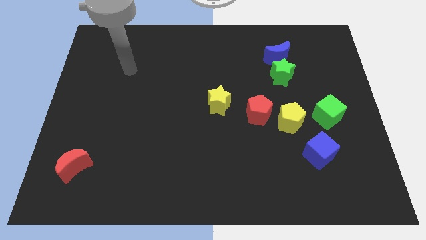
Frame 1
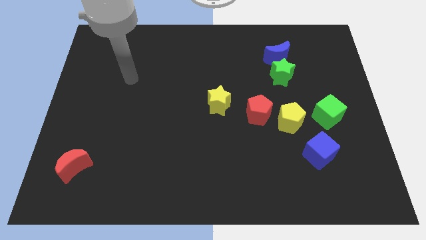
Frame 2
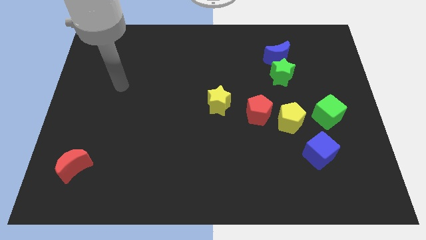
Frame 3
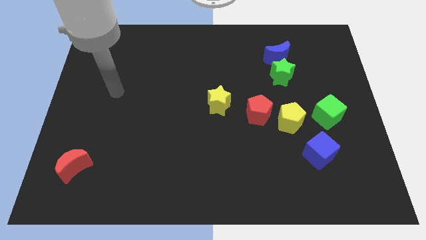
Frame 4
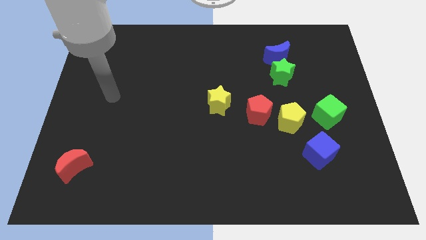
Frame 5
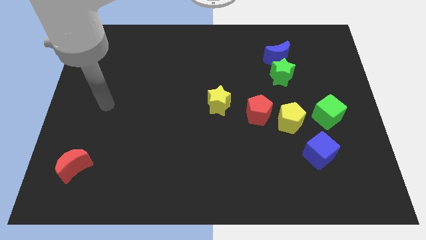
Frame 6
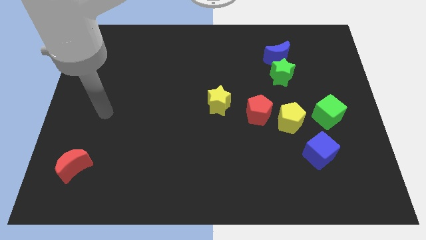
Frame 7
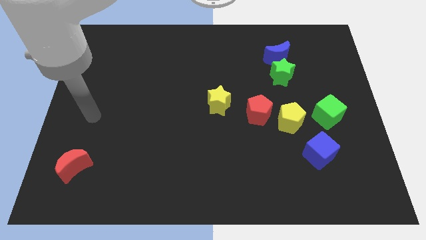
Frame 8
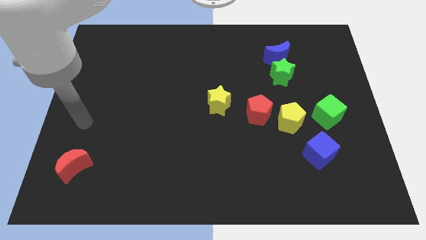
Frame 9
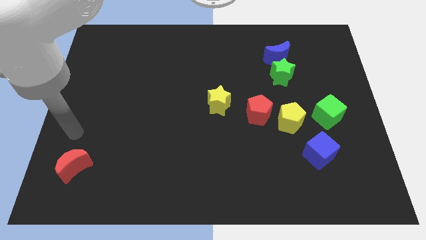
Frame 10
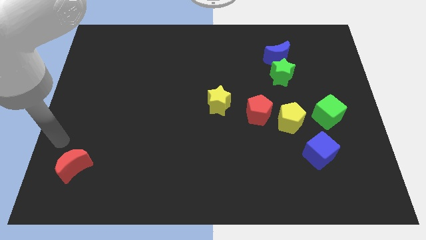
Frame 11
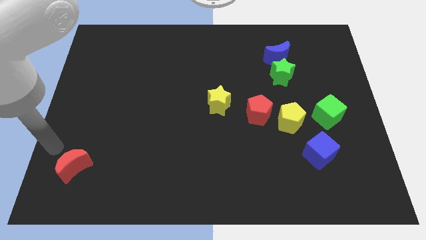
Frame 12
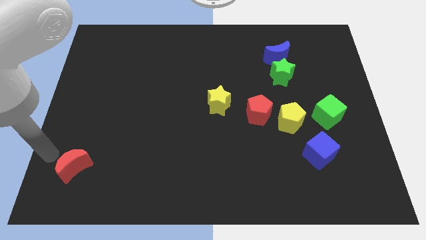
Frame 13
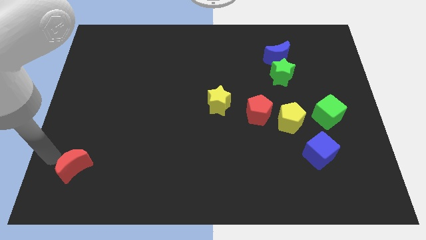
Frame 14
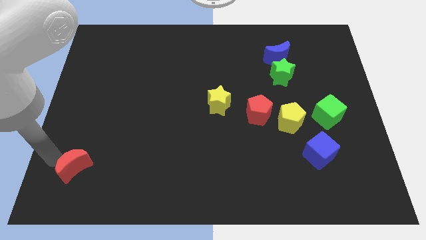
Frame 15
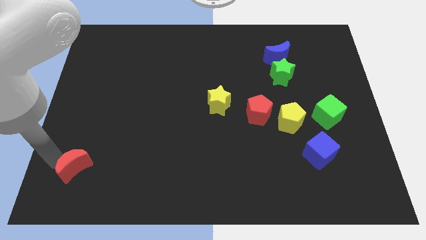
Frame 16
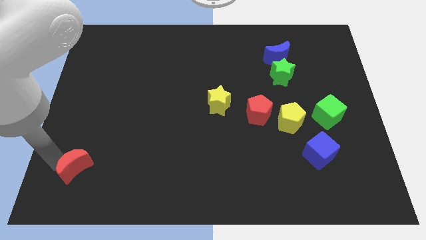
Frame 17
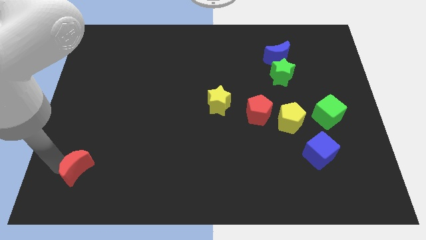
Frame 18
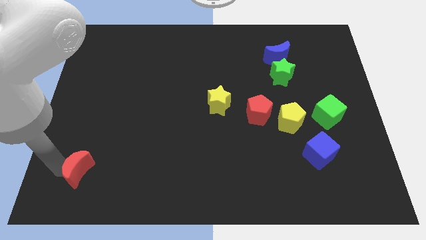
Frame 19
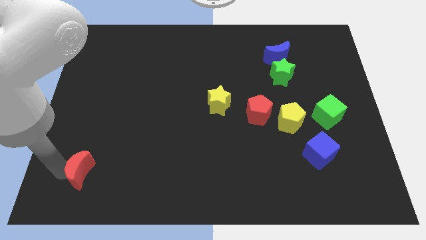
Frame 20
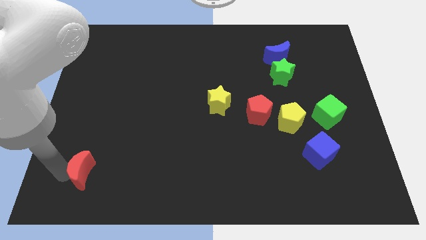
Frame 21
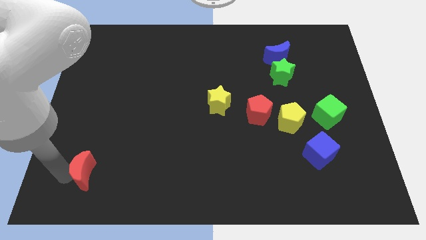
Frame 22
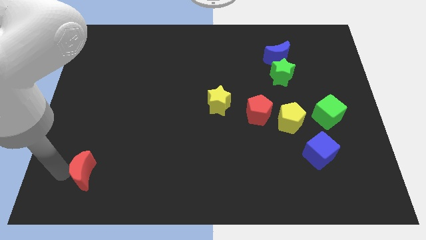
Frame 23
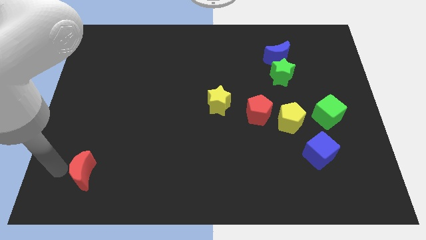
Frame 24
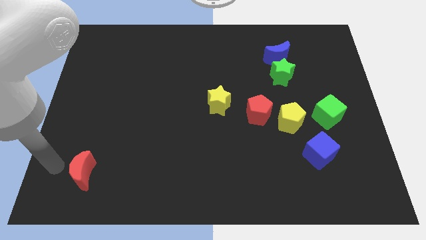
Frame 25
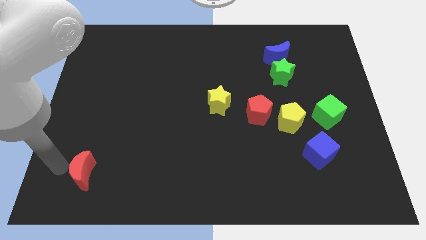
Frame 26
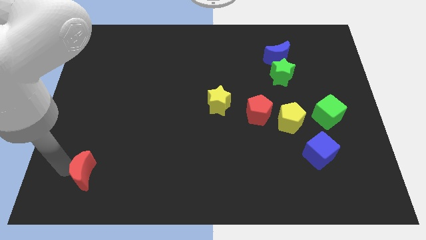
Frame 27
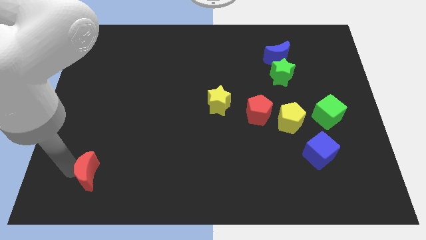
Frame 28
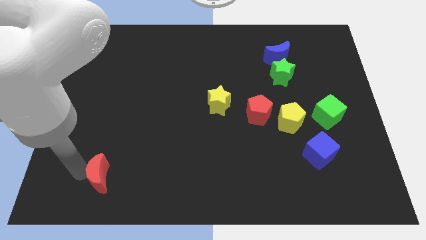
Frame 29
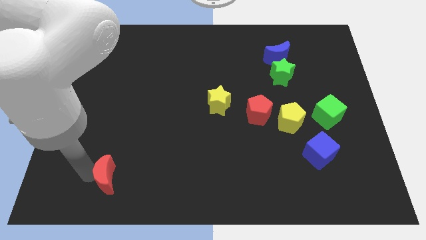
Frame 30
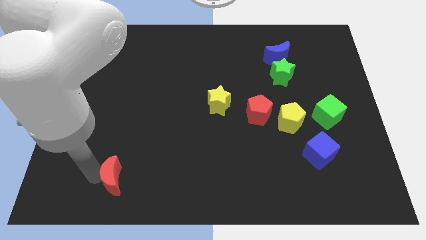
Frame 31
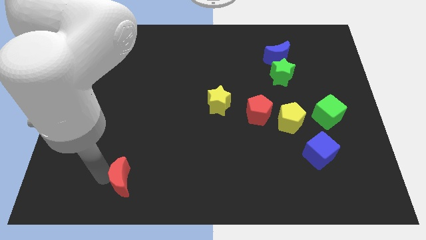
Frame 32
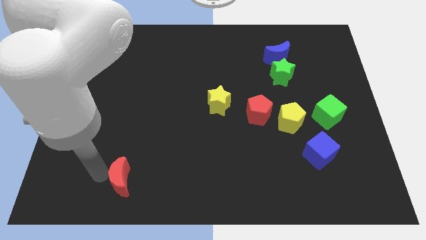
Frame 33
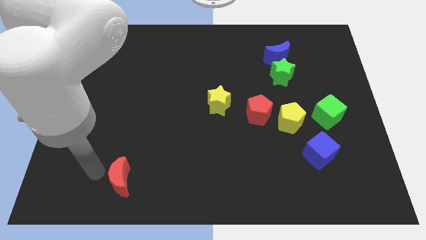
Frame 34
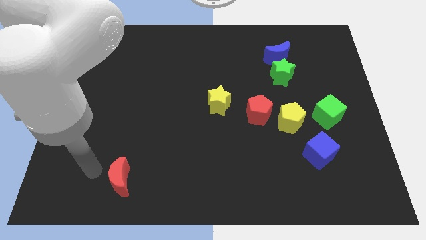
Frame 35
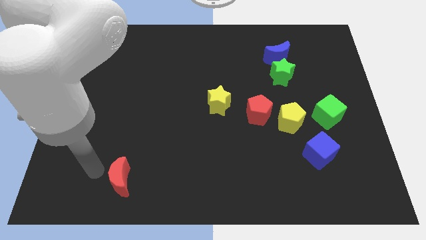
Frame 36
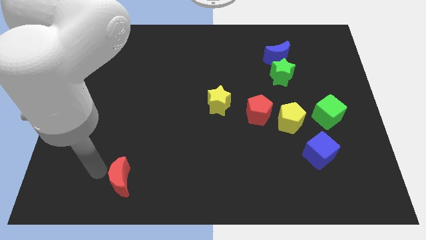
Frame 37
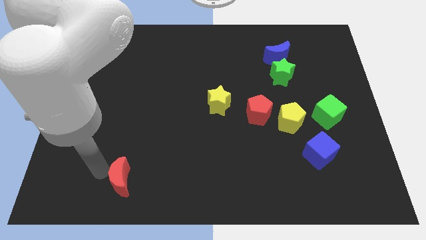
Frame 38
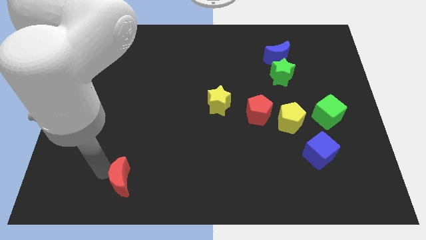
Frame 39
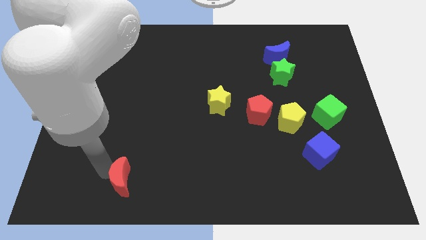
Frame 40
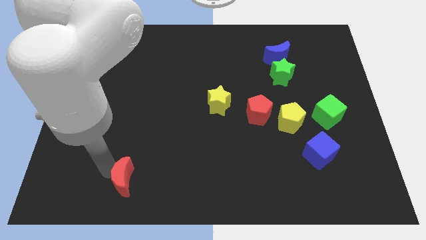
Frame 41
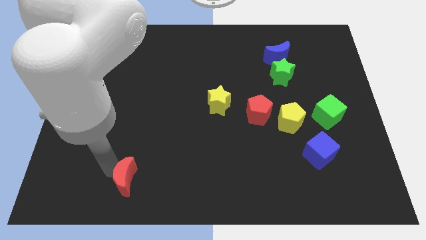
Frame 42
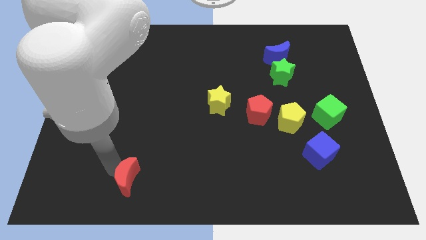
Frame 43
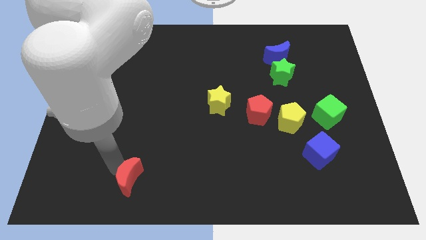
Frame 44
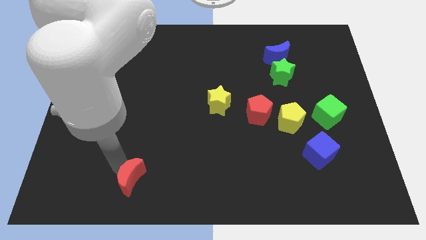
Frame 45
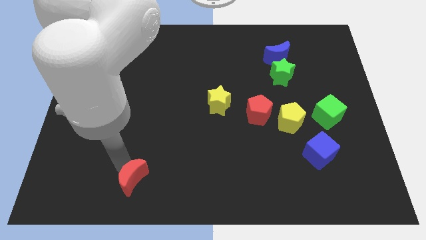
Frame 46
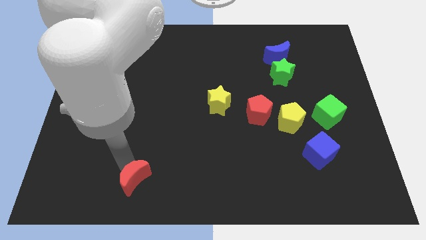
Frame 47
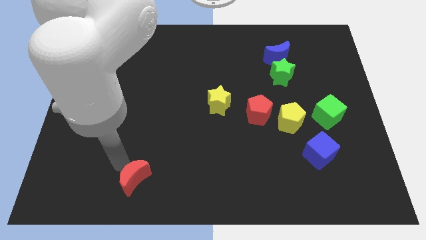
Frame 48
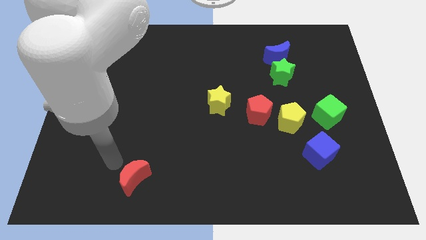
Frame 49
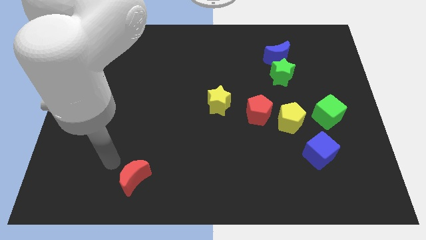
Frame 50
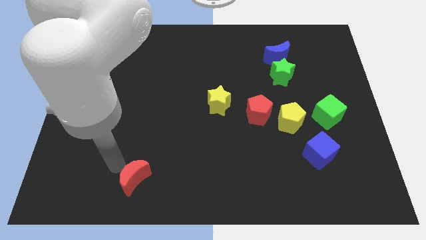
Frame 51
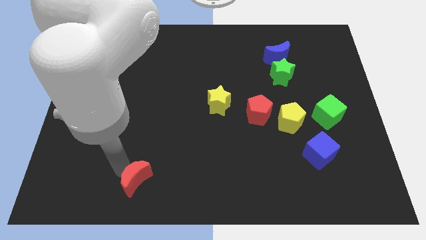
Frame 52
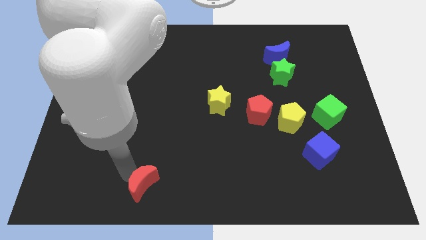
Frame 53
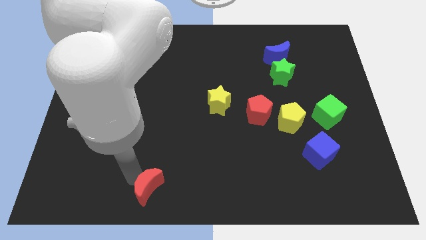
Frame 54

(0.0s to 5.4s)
slide the red moon to the bottom
